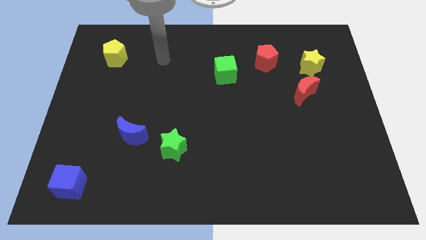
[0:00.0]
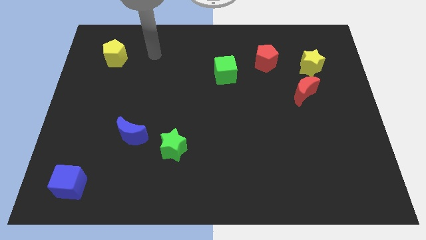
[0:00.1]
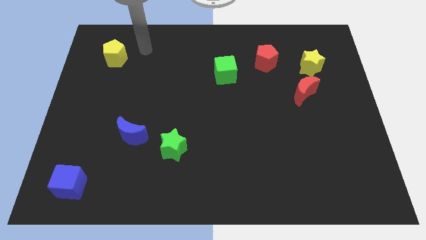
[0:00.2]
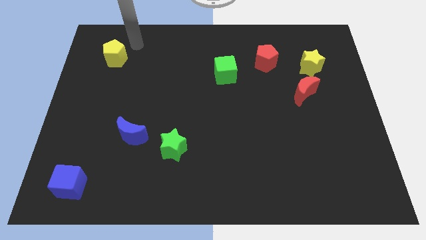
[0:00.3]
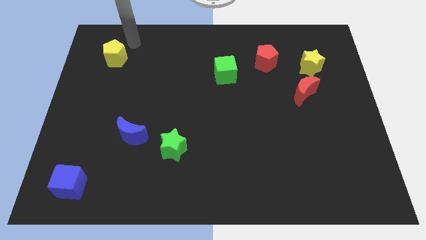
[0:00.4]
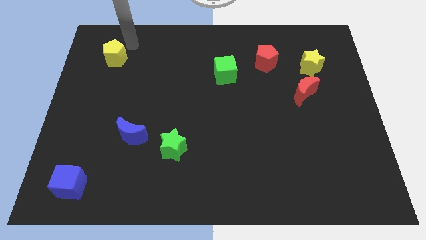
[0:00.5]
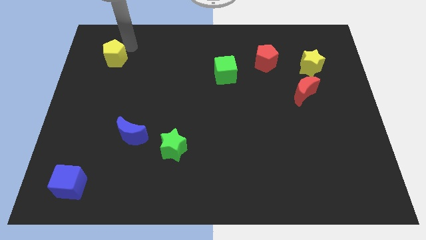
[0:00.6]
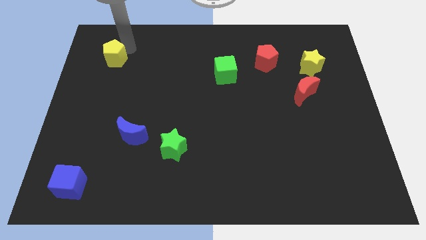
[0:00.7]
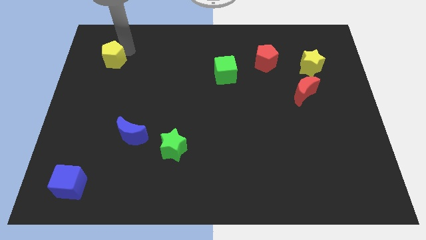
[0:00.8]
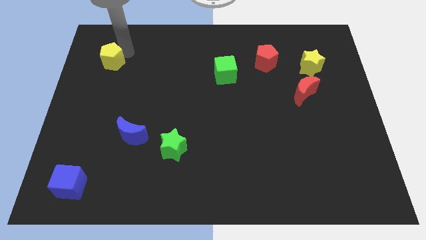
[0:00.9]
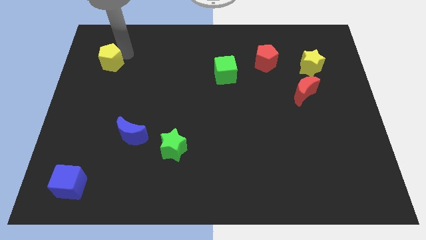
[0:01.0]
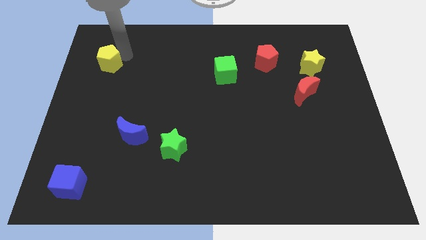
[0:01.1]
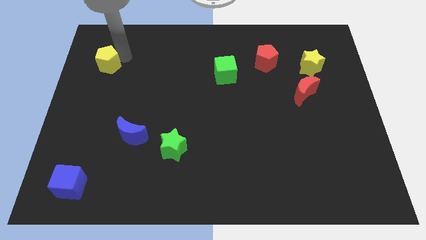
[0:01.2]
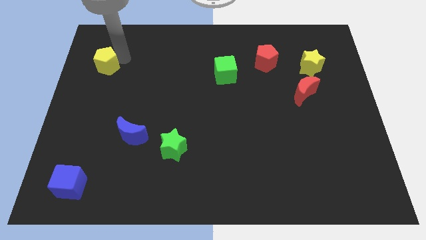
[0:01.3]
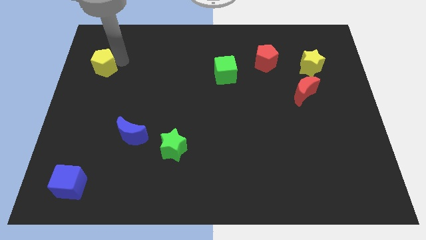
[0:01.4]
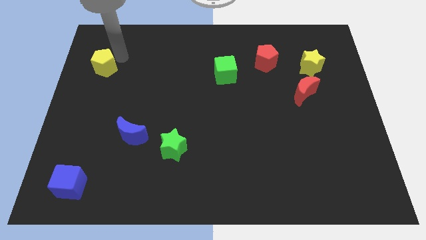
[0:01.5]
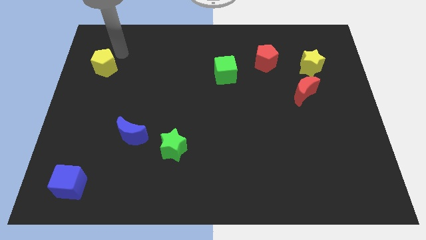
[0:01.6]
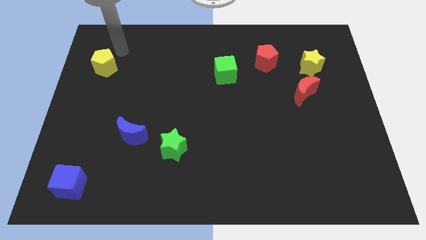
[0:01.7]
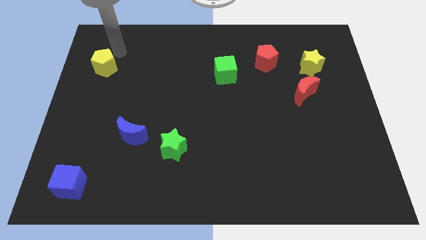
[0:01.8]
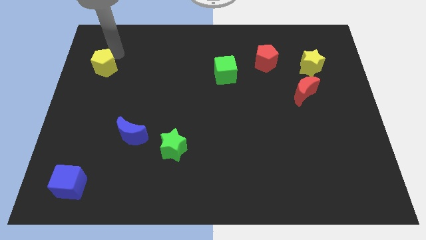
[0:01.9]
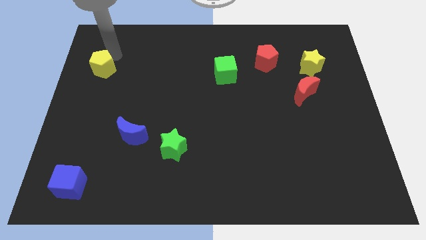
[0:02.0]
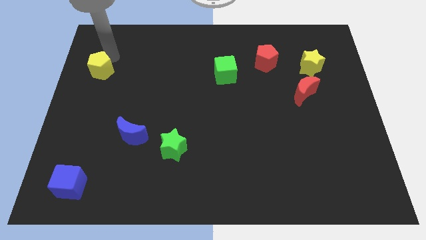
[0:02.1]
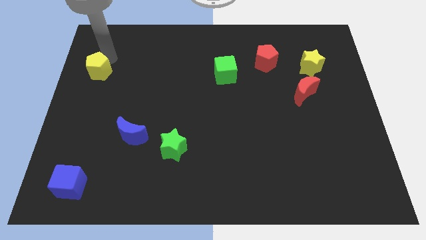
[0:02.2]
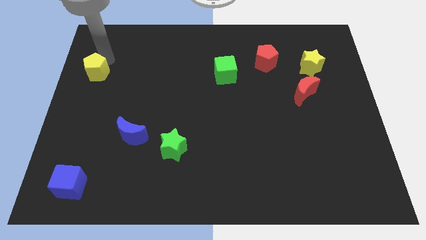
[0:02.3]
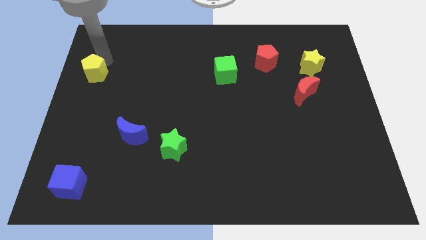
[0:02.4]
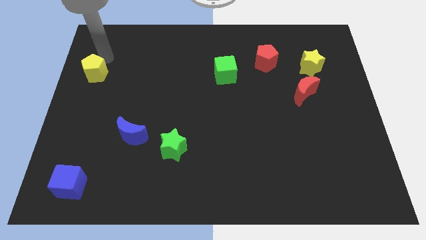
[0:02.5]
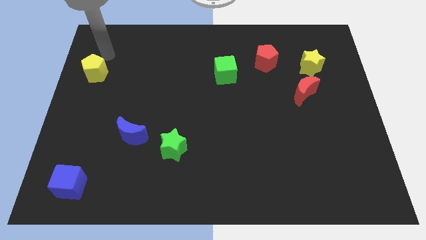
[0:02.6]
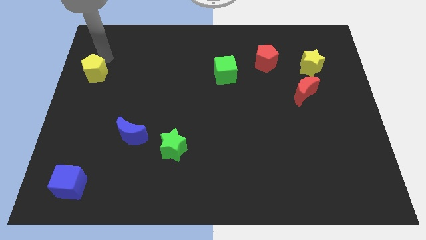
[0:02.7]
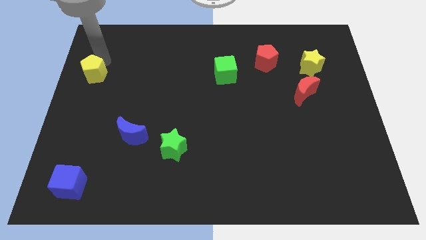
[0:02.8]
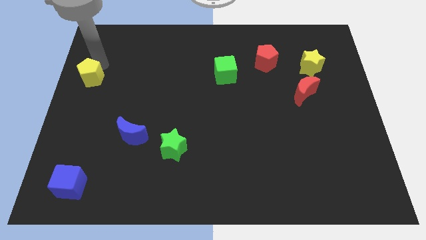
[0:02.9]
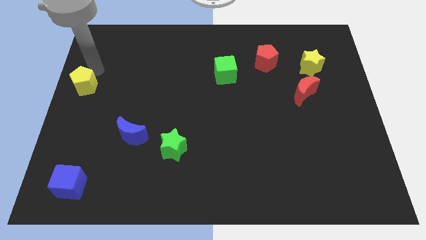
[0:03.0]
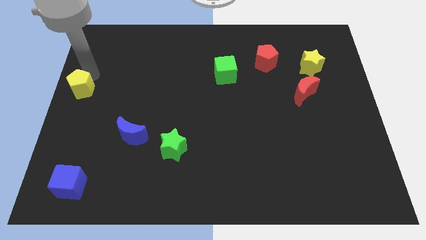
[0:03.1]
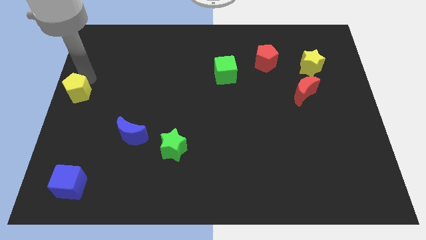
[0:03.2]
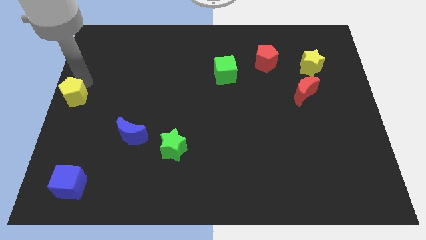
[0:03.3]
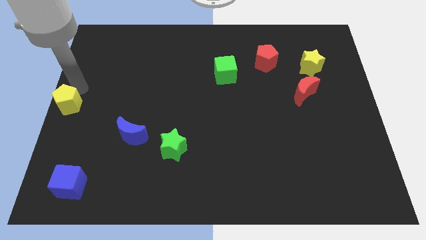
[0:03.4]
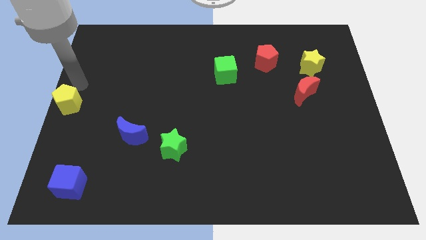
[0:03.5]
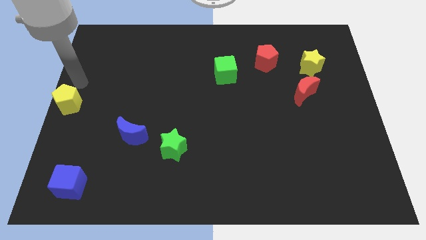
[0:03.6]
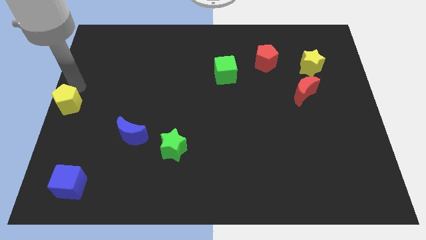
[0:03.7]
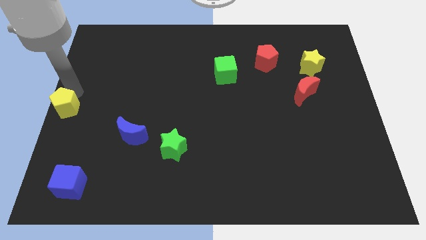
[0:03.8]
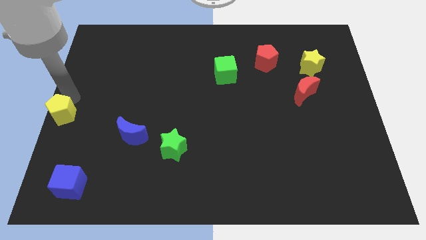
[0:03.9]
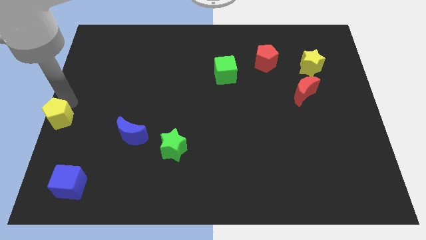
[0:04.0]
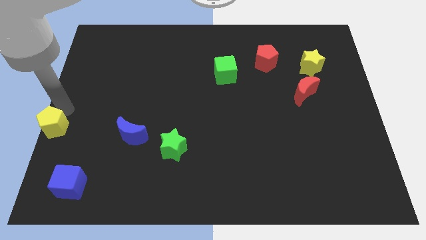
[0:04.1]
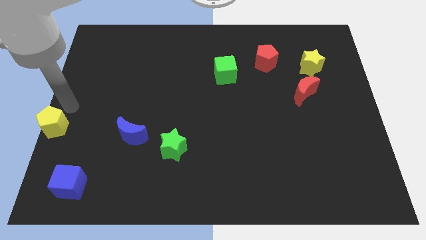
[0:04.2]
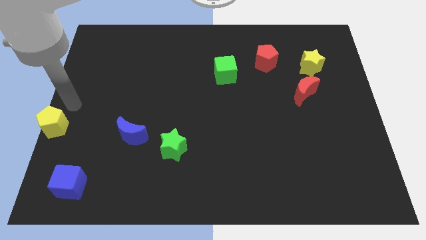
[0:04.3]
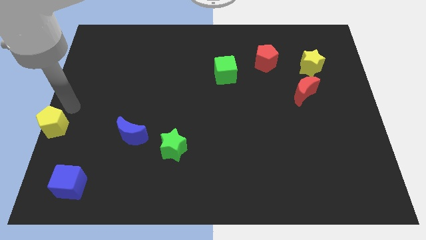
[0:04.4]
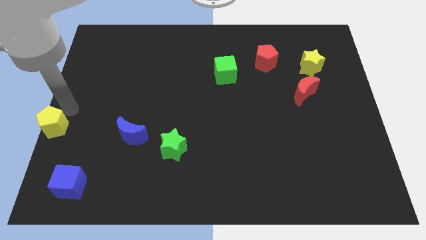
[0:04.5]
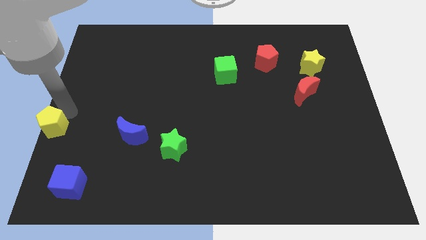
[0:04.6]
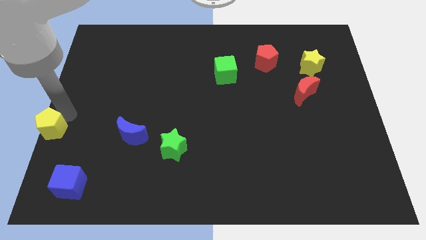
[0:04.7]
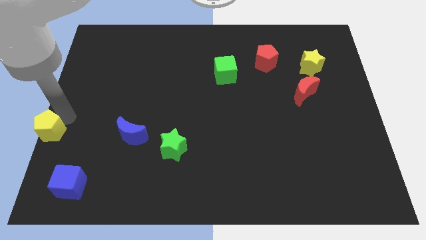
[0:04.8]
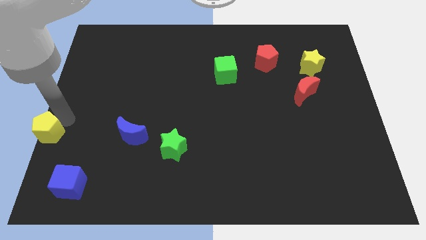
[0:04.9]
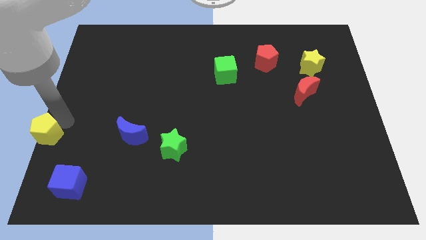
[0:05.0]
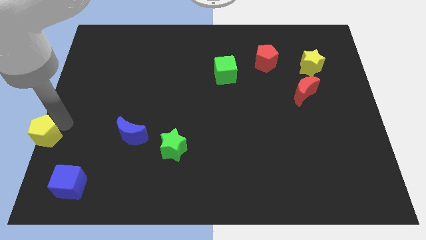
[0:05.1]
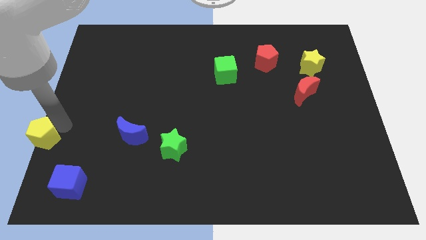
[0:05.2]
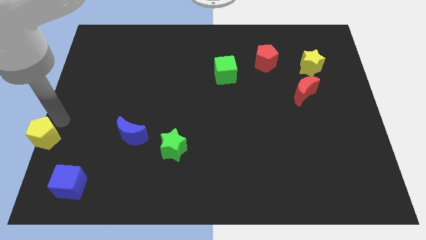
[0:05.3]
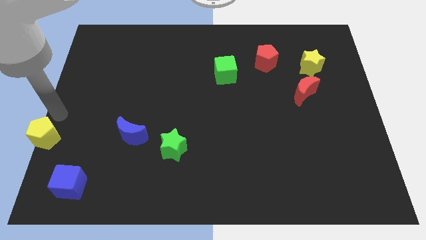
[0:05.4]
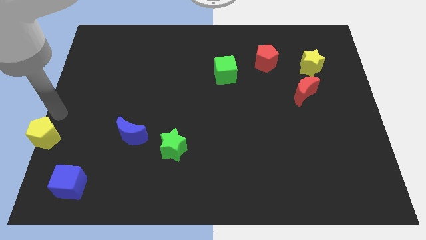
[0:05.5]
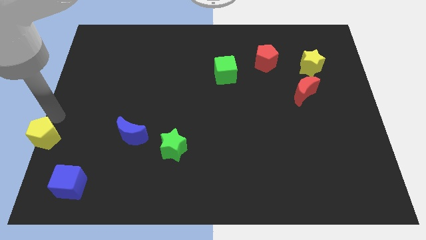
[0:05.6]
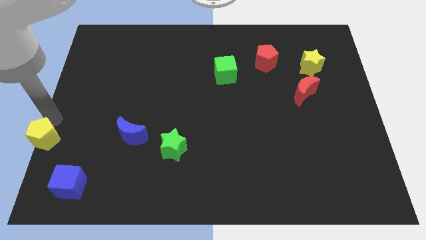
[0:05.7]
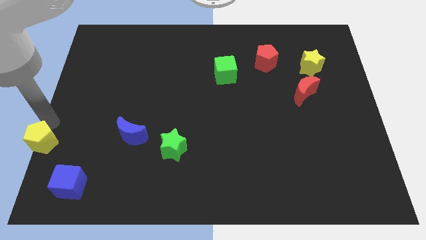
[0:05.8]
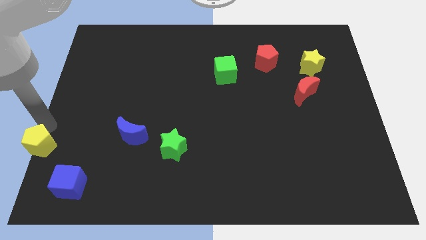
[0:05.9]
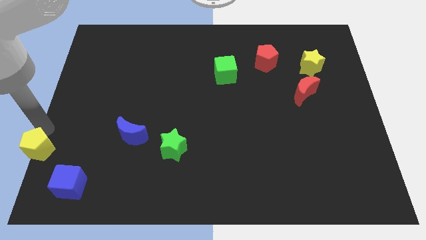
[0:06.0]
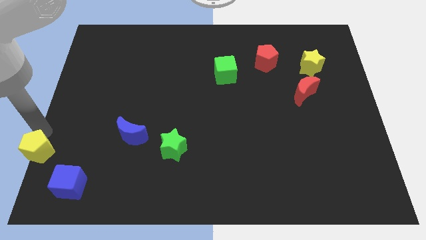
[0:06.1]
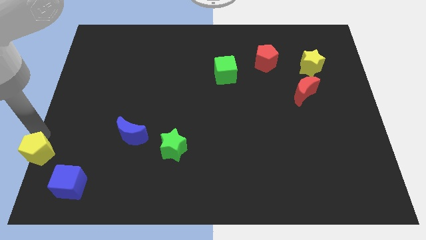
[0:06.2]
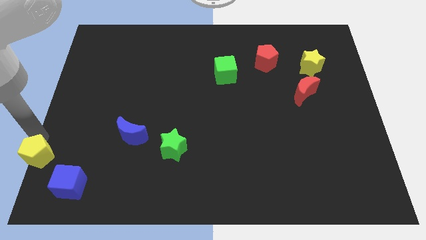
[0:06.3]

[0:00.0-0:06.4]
put the yellow pentagon to the bottom left corner
